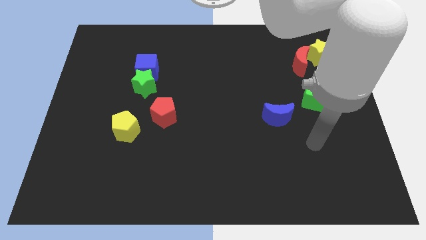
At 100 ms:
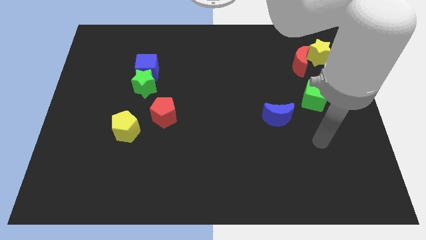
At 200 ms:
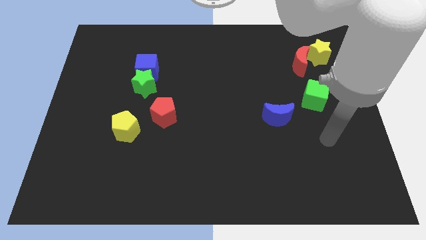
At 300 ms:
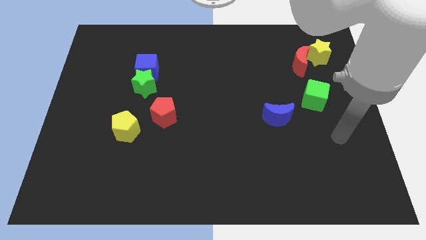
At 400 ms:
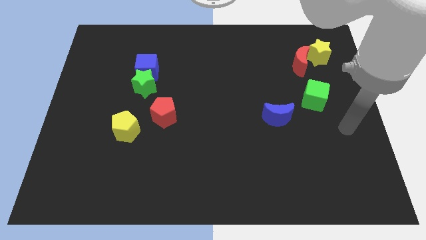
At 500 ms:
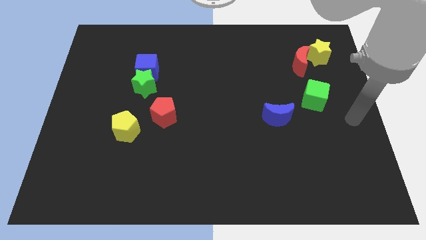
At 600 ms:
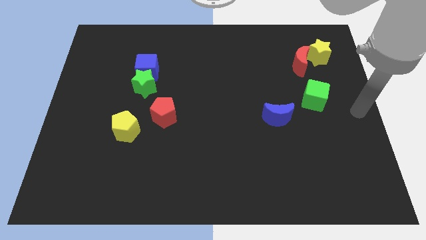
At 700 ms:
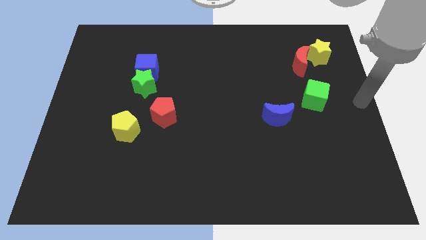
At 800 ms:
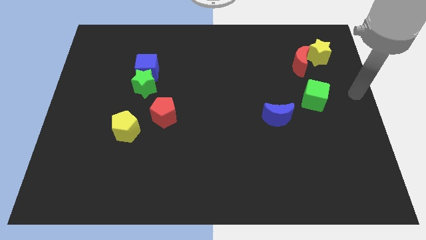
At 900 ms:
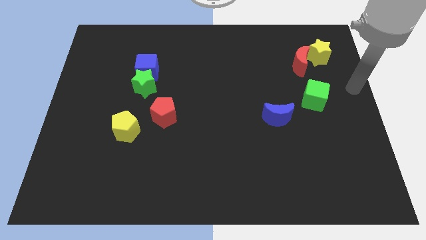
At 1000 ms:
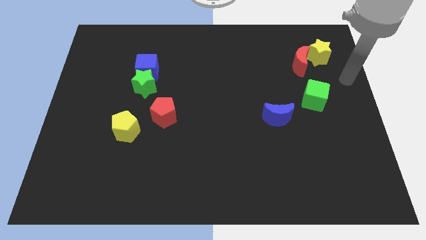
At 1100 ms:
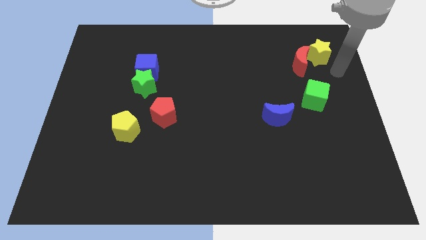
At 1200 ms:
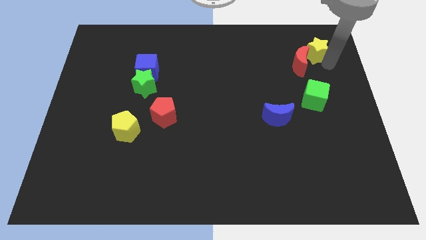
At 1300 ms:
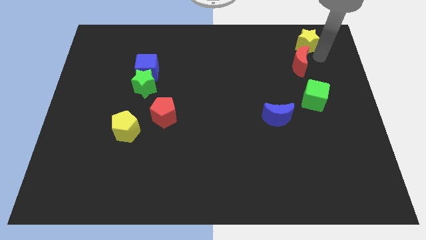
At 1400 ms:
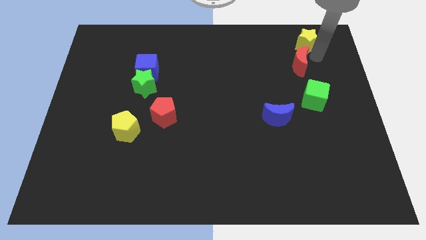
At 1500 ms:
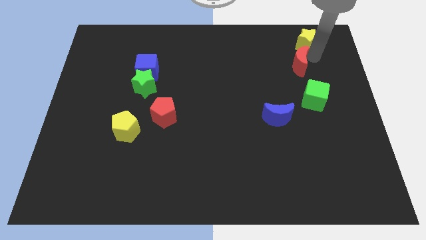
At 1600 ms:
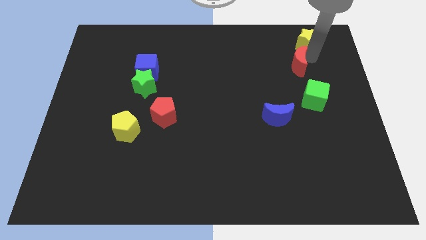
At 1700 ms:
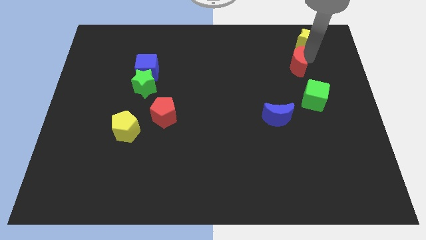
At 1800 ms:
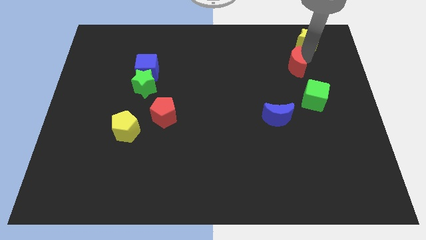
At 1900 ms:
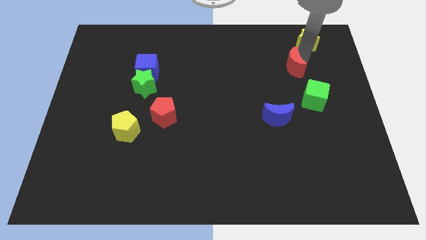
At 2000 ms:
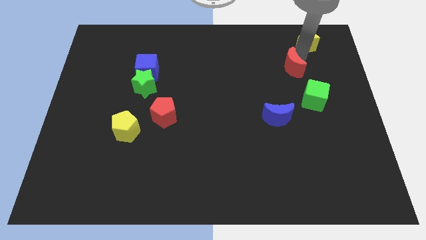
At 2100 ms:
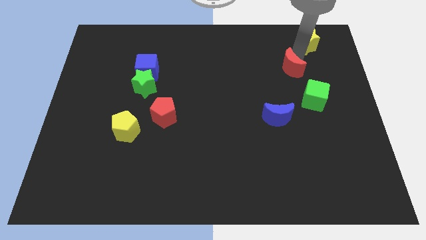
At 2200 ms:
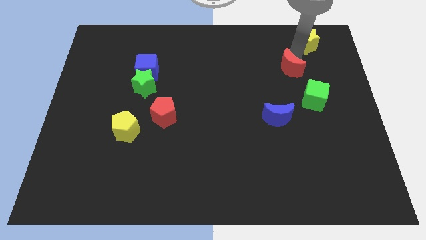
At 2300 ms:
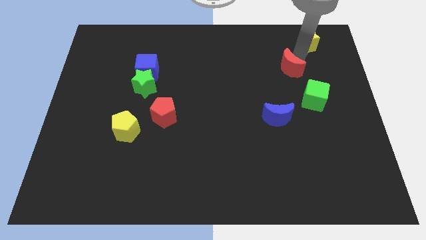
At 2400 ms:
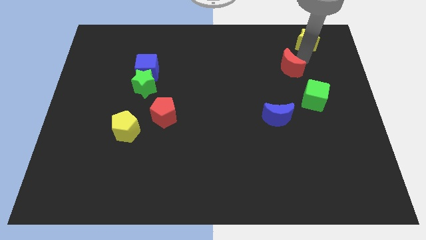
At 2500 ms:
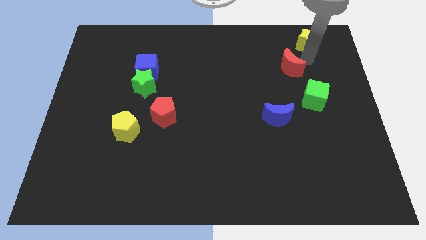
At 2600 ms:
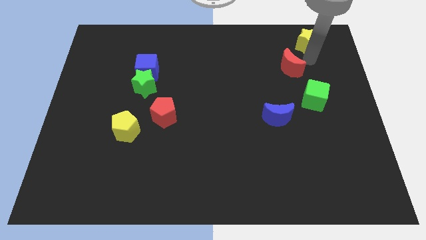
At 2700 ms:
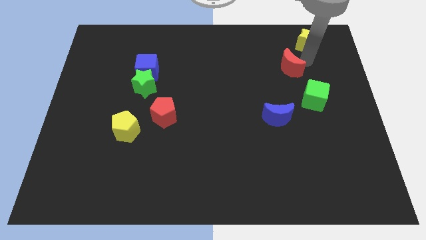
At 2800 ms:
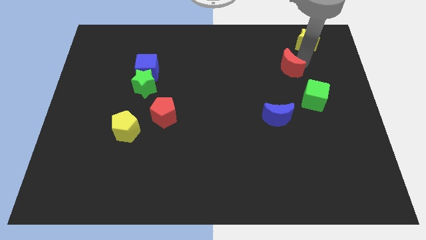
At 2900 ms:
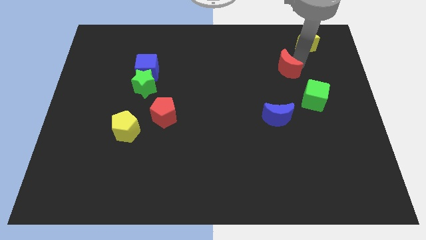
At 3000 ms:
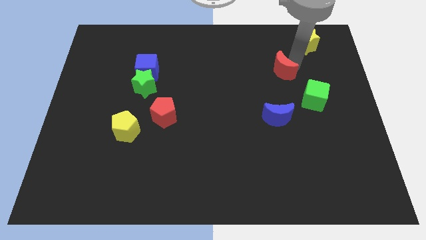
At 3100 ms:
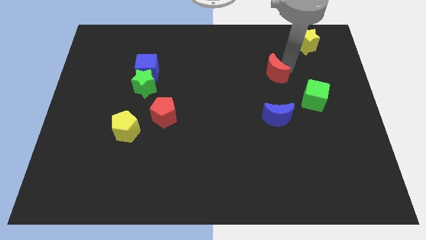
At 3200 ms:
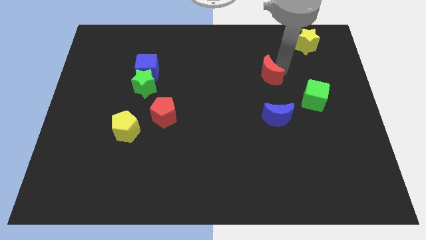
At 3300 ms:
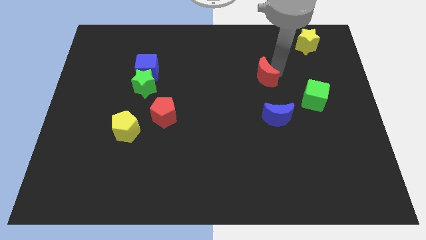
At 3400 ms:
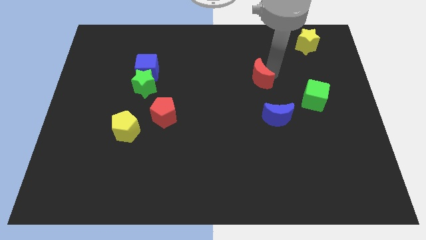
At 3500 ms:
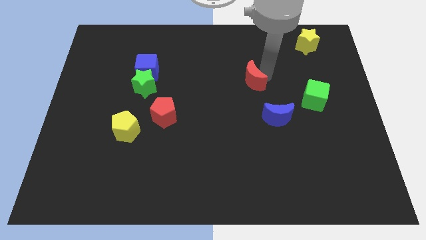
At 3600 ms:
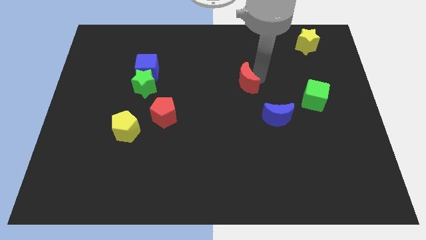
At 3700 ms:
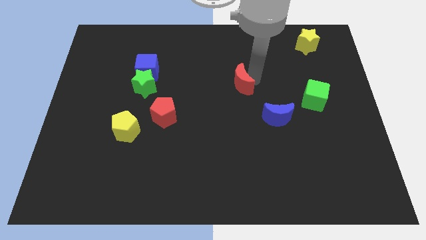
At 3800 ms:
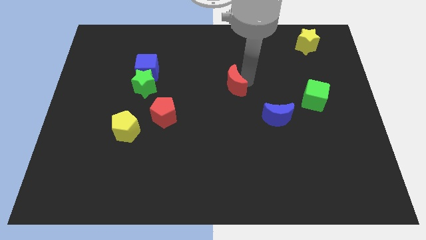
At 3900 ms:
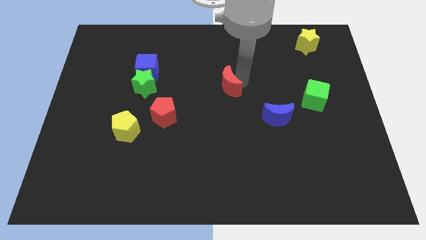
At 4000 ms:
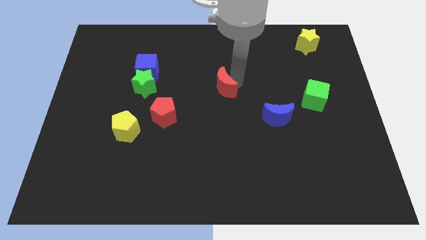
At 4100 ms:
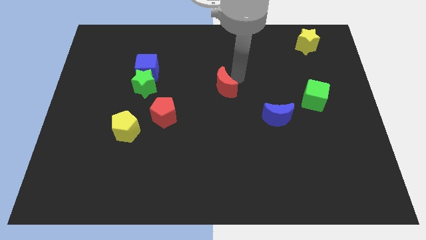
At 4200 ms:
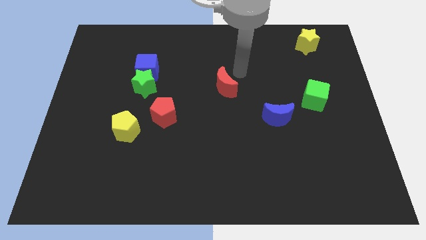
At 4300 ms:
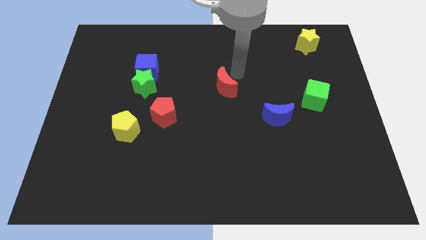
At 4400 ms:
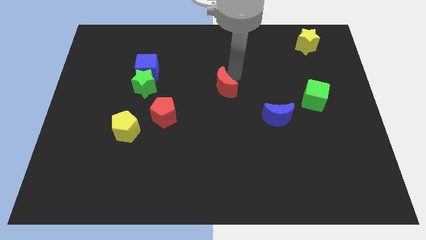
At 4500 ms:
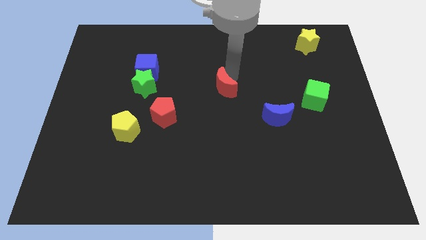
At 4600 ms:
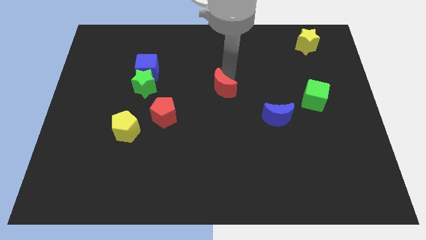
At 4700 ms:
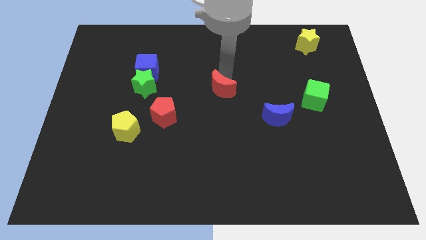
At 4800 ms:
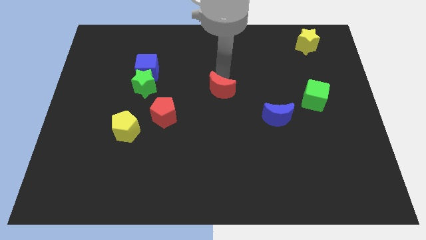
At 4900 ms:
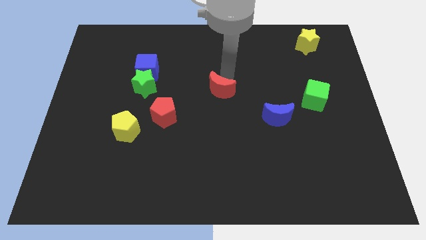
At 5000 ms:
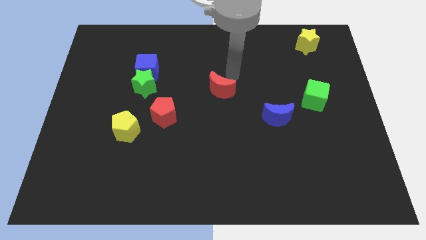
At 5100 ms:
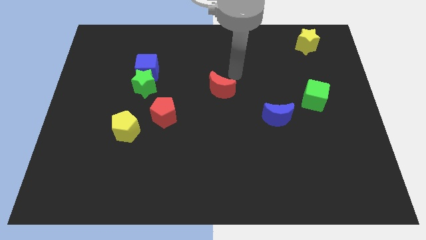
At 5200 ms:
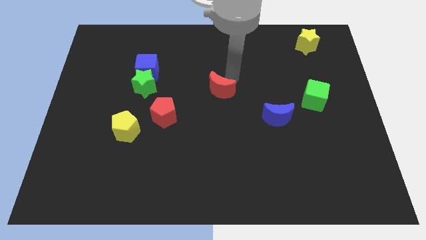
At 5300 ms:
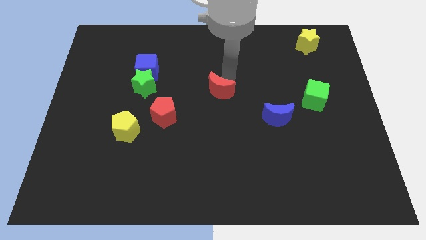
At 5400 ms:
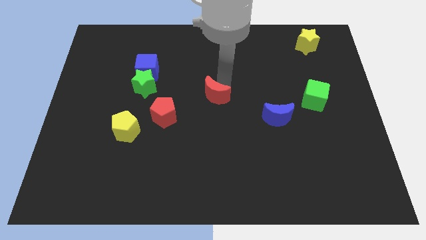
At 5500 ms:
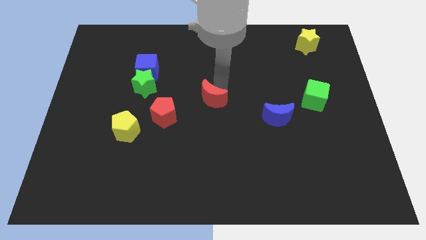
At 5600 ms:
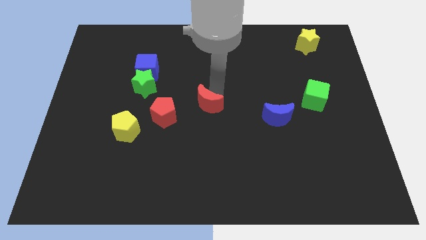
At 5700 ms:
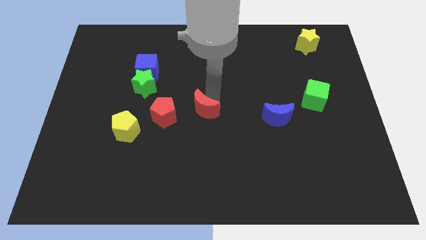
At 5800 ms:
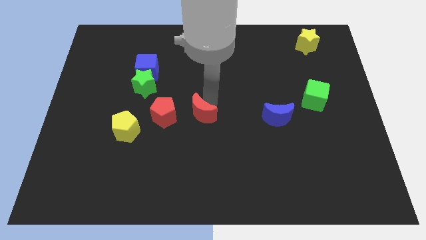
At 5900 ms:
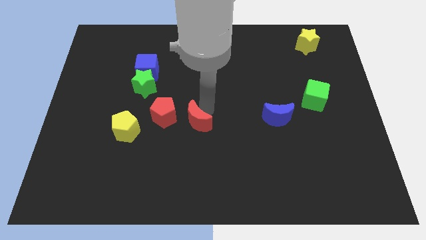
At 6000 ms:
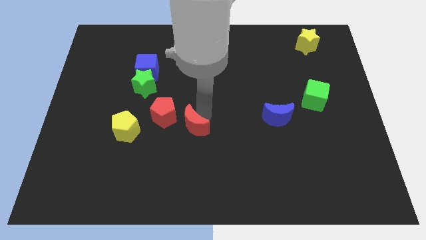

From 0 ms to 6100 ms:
put the red moon to the right side of the yellow pentagon

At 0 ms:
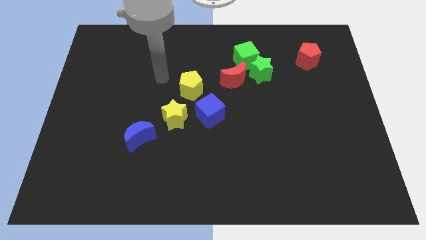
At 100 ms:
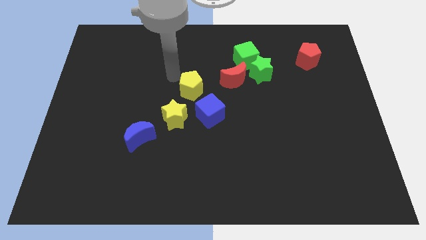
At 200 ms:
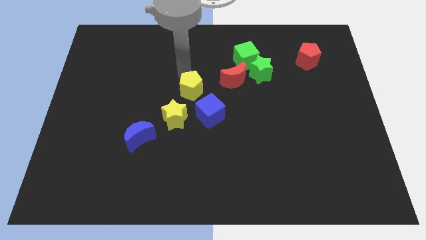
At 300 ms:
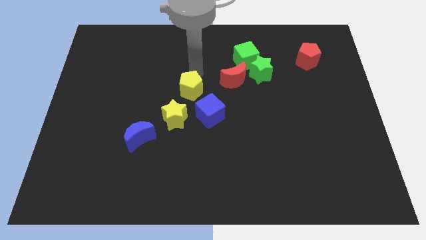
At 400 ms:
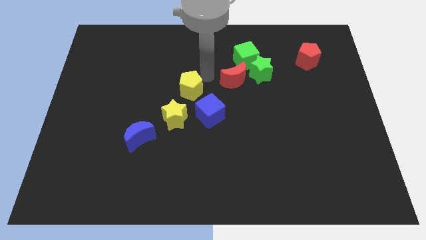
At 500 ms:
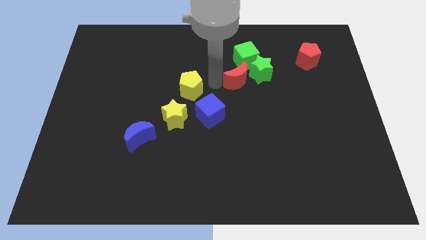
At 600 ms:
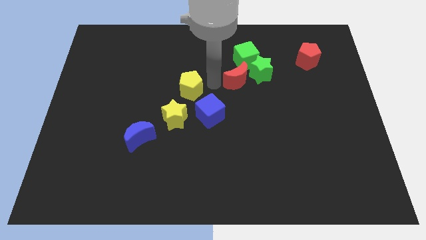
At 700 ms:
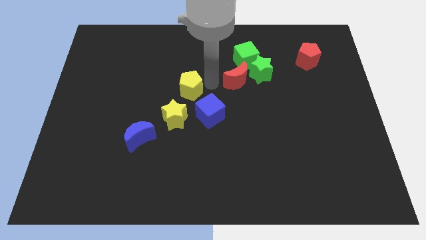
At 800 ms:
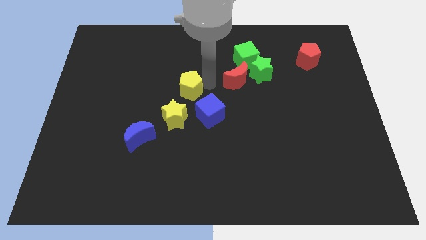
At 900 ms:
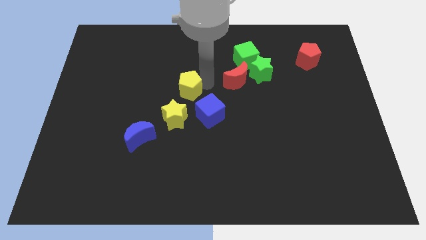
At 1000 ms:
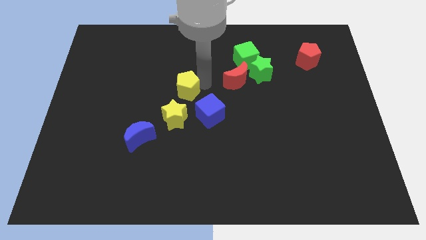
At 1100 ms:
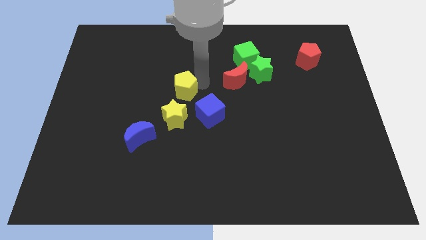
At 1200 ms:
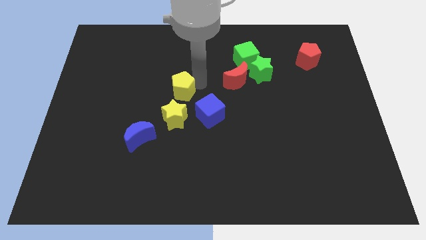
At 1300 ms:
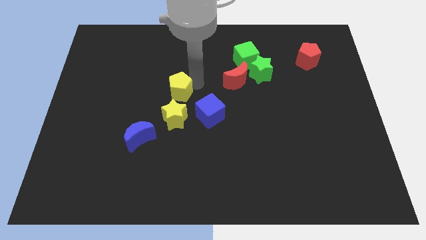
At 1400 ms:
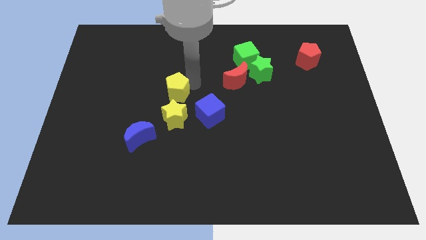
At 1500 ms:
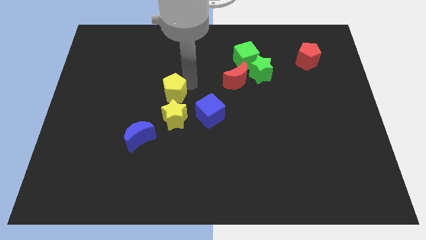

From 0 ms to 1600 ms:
slide the yellow pentagon diagonally up and to the left of the yellow star
